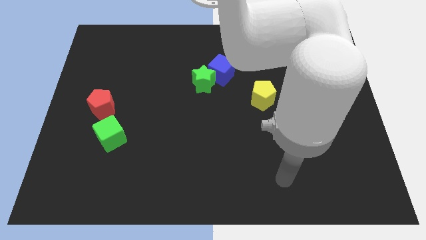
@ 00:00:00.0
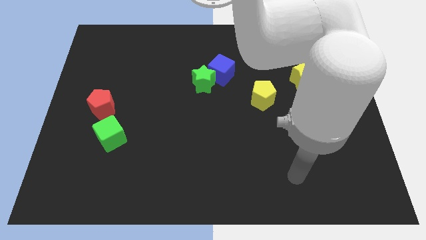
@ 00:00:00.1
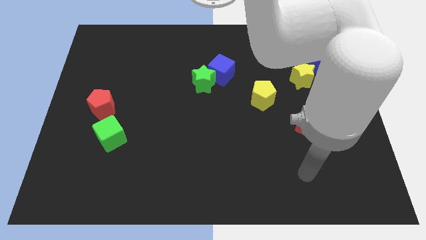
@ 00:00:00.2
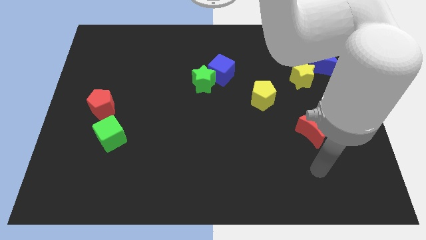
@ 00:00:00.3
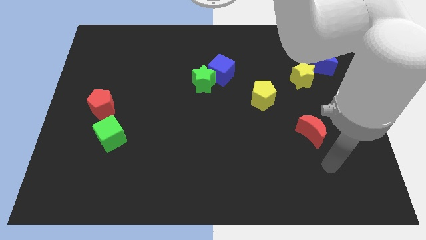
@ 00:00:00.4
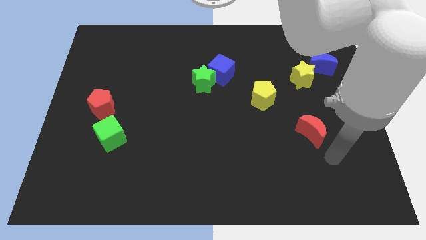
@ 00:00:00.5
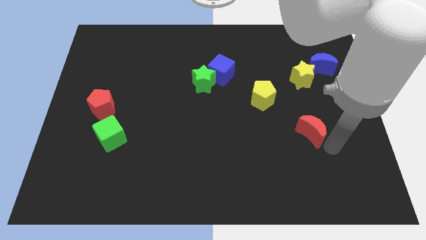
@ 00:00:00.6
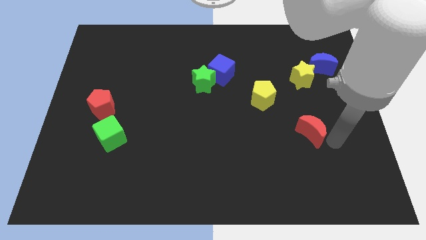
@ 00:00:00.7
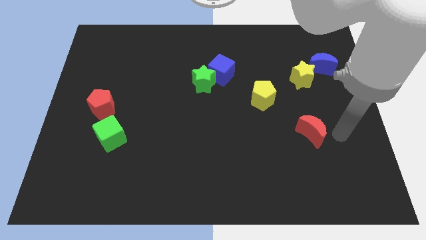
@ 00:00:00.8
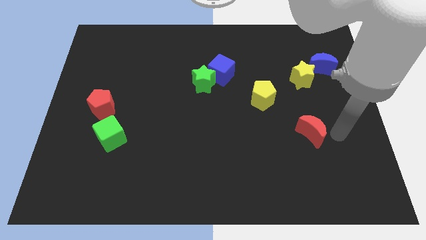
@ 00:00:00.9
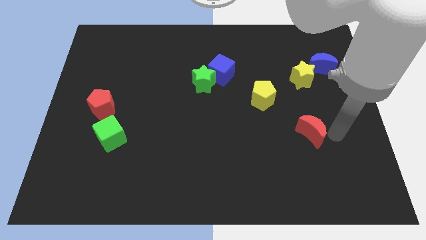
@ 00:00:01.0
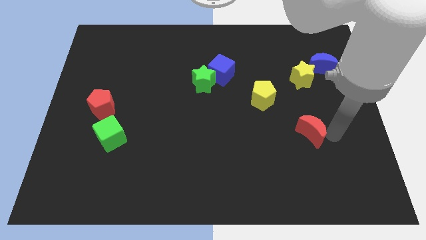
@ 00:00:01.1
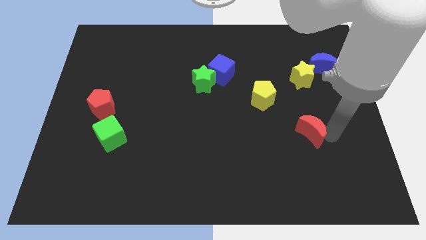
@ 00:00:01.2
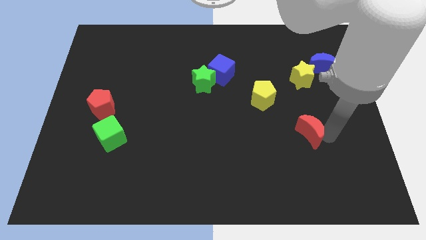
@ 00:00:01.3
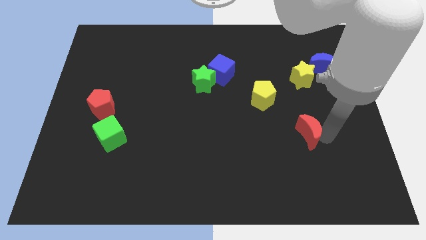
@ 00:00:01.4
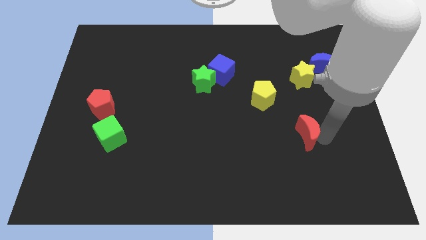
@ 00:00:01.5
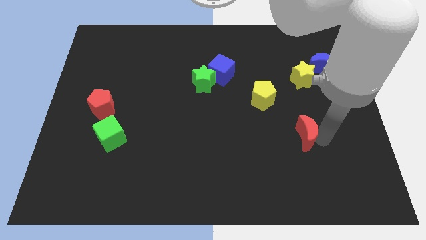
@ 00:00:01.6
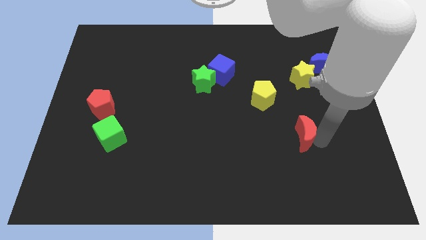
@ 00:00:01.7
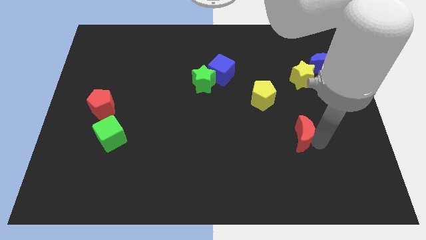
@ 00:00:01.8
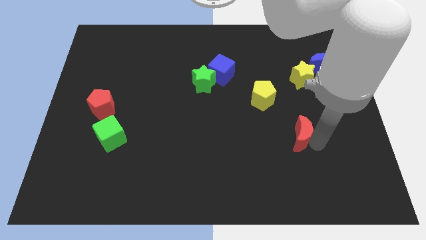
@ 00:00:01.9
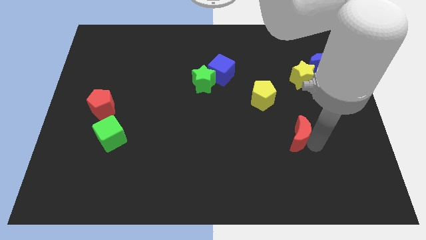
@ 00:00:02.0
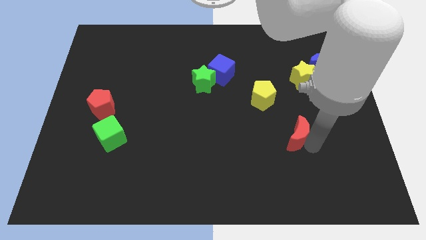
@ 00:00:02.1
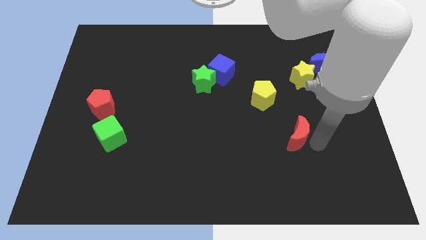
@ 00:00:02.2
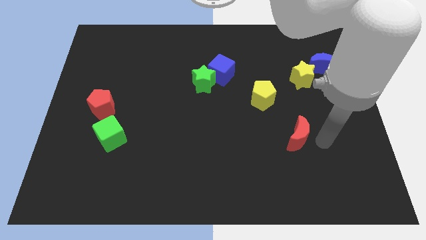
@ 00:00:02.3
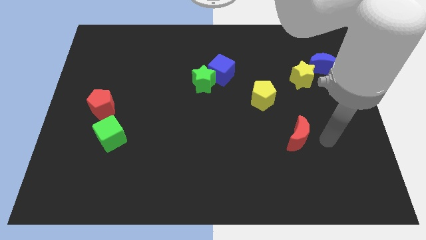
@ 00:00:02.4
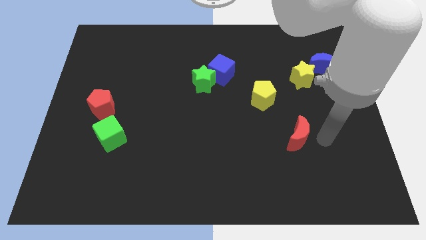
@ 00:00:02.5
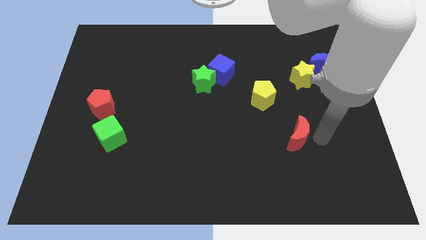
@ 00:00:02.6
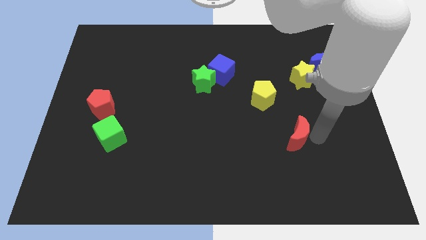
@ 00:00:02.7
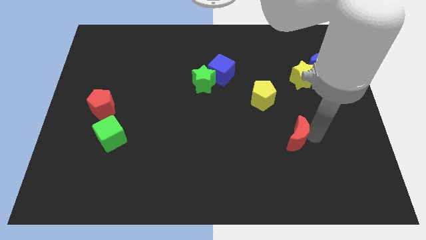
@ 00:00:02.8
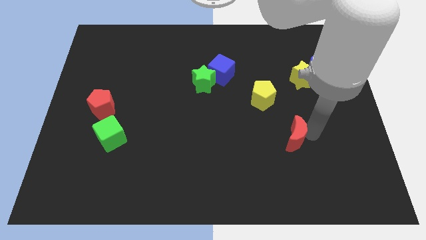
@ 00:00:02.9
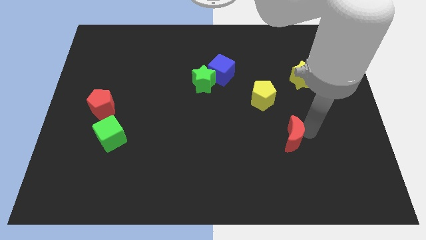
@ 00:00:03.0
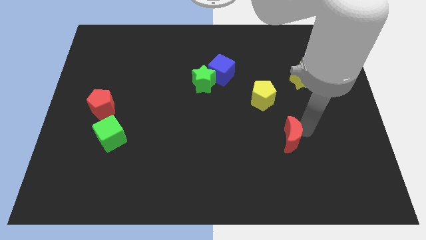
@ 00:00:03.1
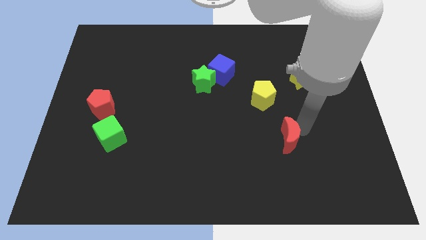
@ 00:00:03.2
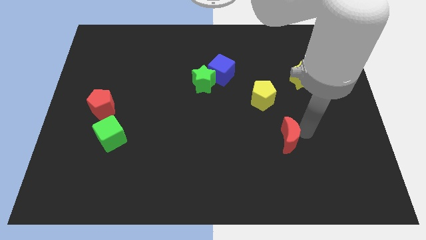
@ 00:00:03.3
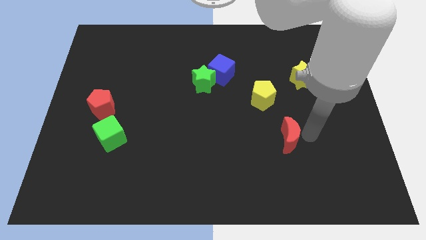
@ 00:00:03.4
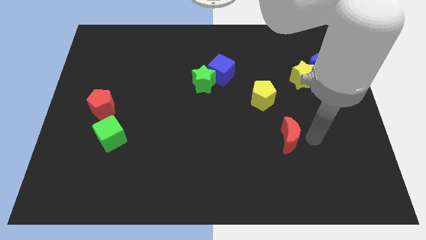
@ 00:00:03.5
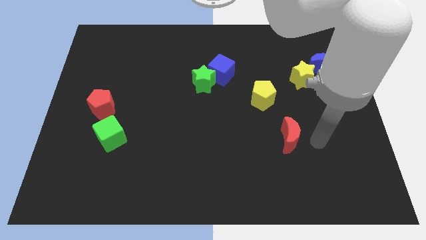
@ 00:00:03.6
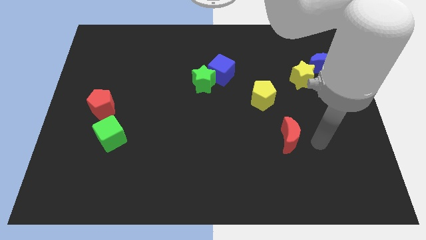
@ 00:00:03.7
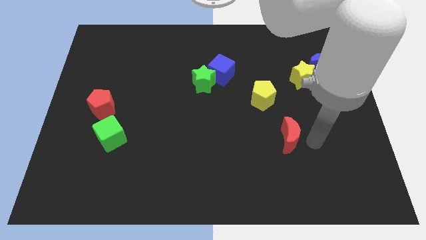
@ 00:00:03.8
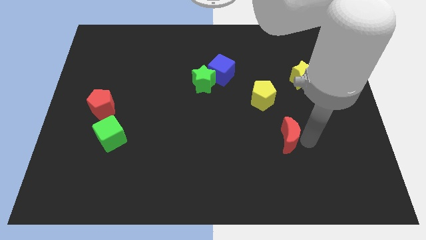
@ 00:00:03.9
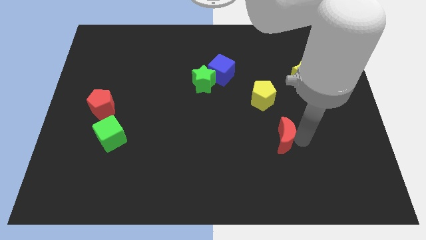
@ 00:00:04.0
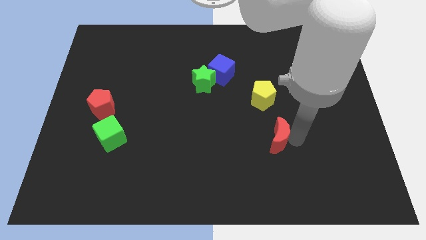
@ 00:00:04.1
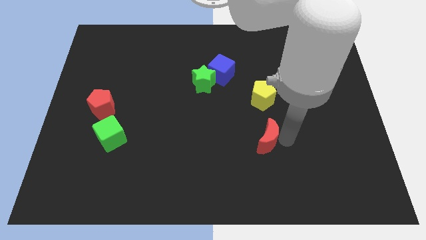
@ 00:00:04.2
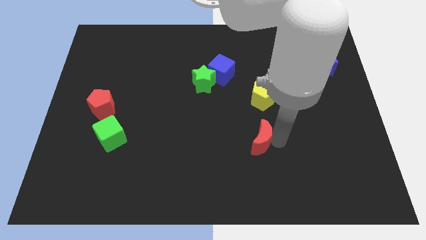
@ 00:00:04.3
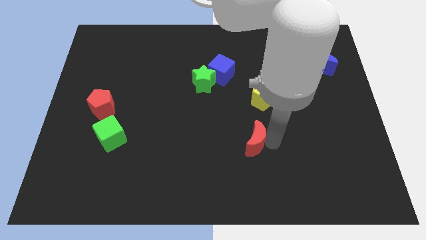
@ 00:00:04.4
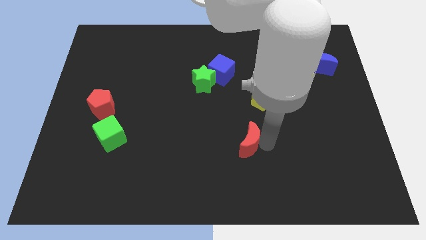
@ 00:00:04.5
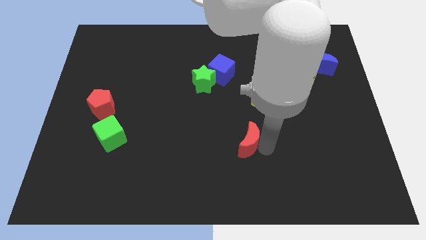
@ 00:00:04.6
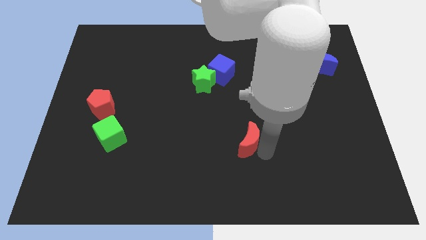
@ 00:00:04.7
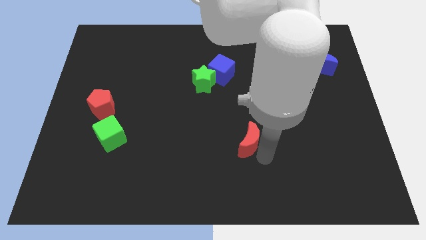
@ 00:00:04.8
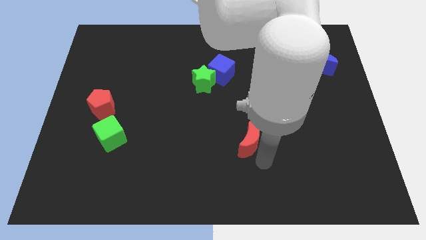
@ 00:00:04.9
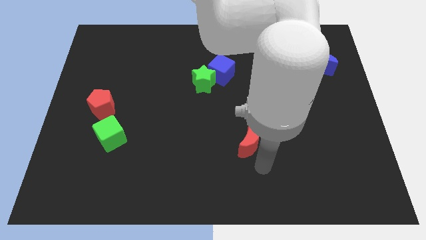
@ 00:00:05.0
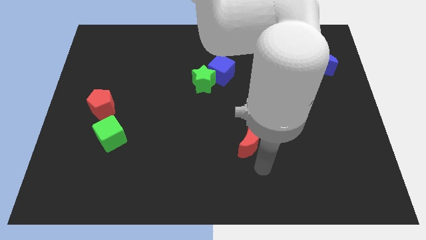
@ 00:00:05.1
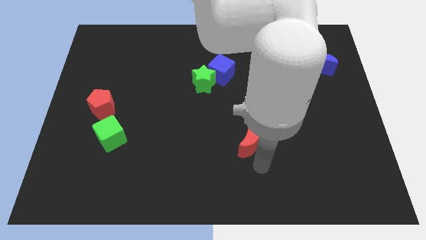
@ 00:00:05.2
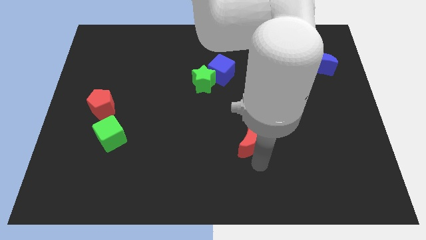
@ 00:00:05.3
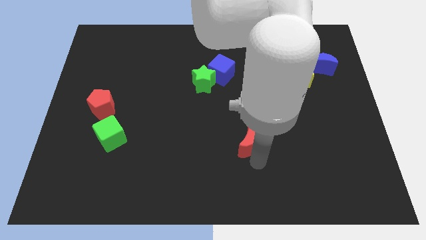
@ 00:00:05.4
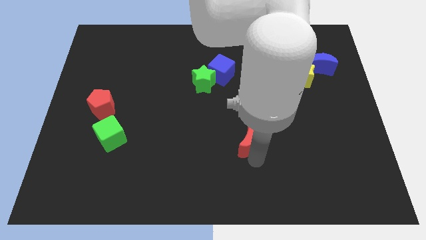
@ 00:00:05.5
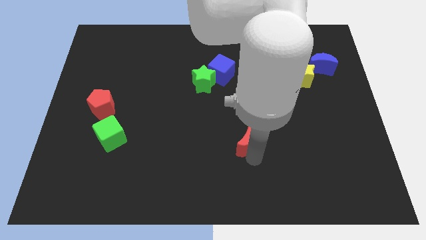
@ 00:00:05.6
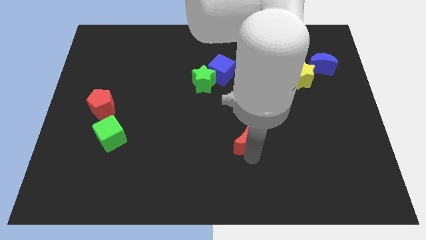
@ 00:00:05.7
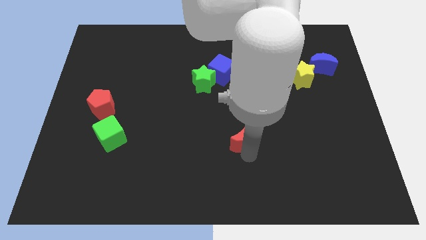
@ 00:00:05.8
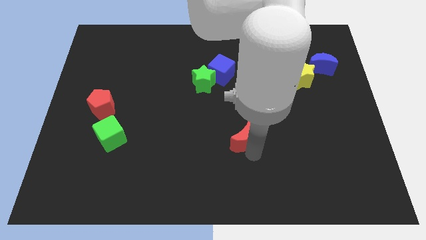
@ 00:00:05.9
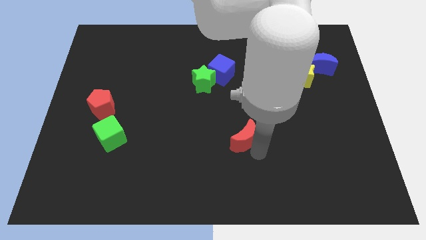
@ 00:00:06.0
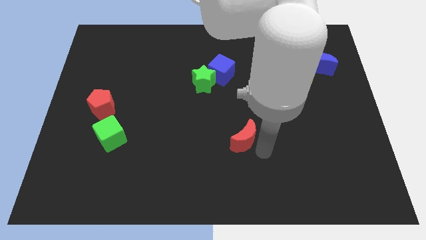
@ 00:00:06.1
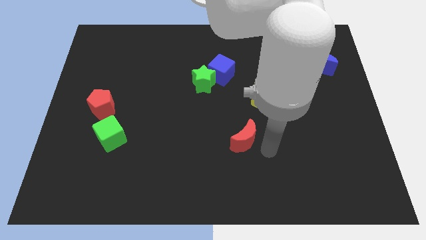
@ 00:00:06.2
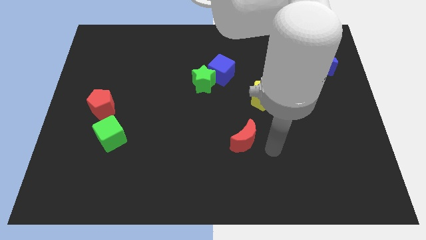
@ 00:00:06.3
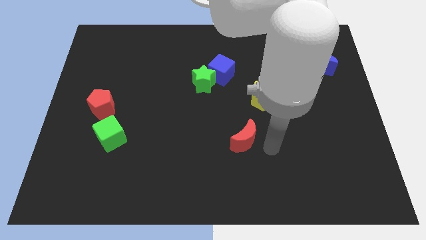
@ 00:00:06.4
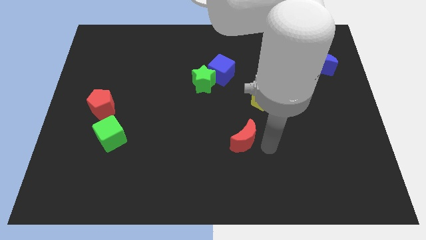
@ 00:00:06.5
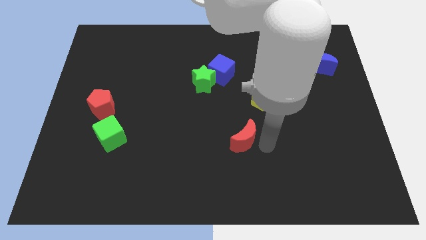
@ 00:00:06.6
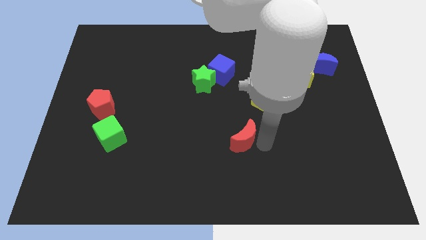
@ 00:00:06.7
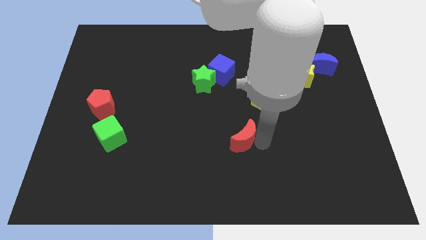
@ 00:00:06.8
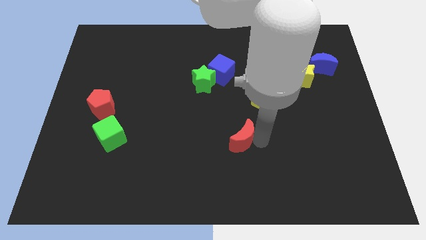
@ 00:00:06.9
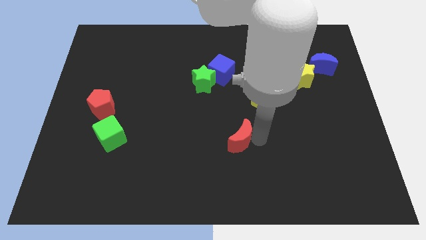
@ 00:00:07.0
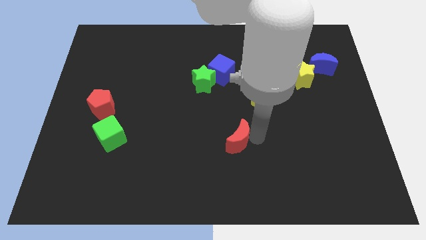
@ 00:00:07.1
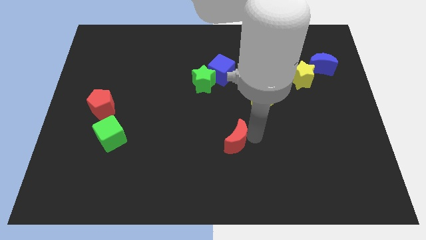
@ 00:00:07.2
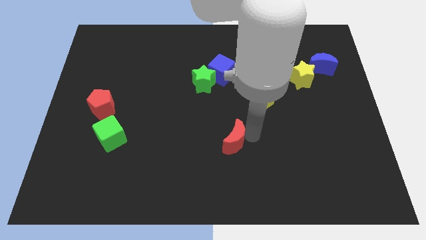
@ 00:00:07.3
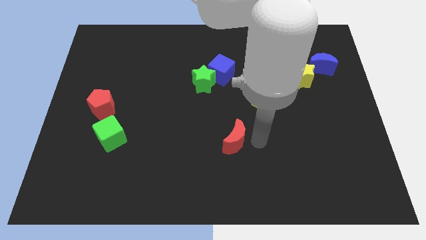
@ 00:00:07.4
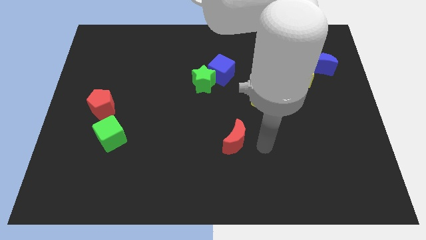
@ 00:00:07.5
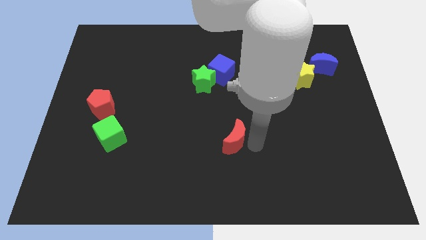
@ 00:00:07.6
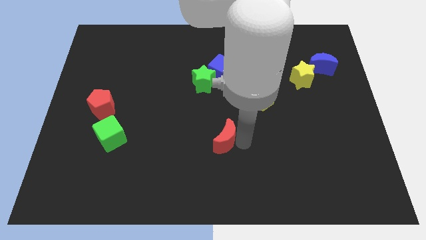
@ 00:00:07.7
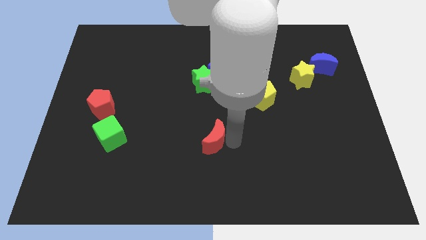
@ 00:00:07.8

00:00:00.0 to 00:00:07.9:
move the red moon left

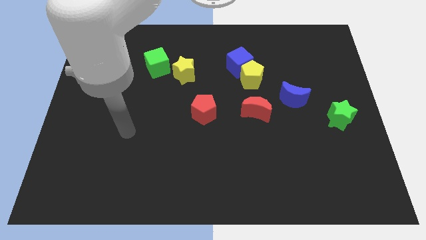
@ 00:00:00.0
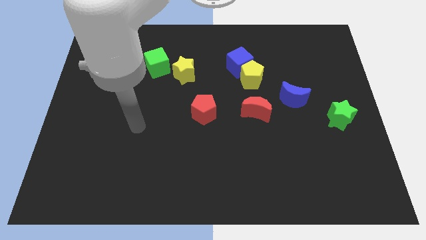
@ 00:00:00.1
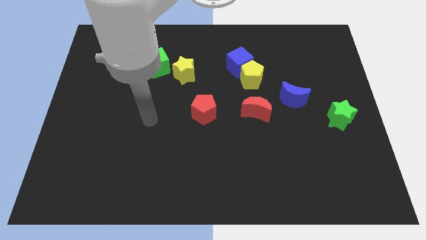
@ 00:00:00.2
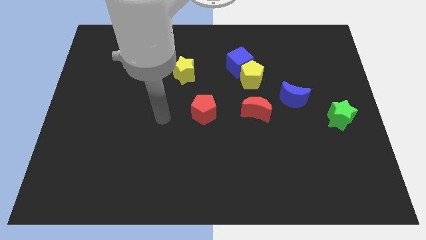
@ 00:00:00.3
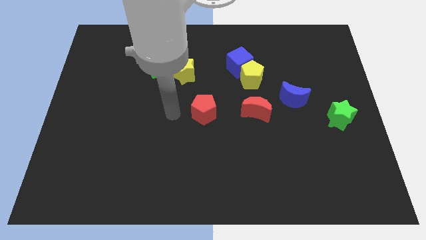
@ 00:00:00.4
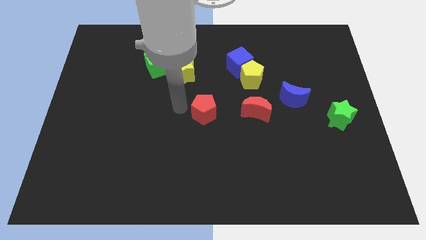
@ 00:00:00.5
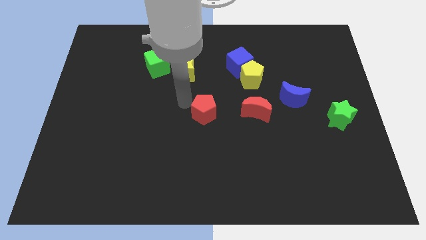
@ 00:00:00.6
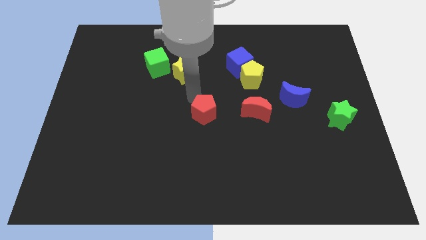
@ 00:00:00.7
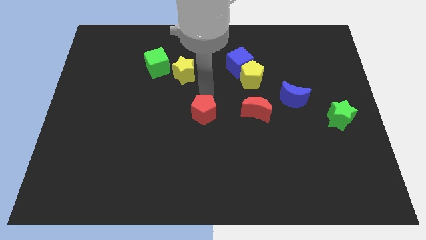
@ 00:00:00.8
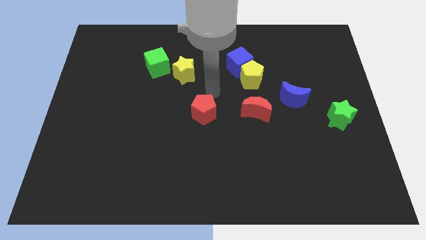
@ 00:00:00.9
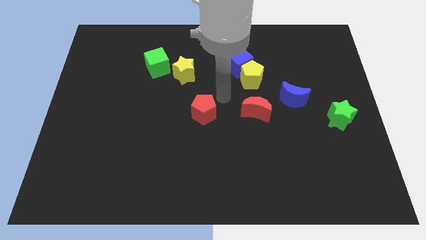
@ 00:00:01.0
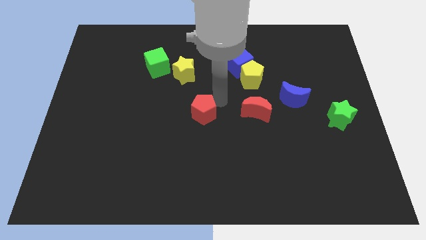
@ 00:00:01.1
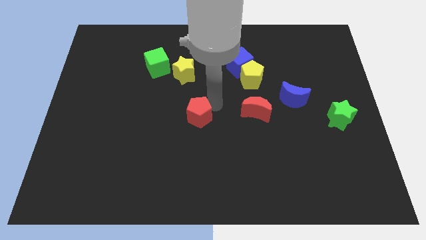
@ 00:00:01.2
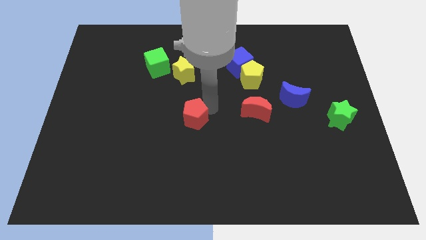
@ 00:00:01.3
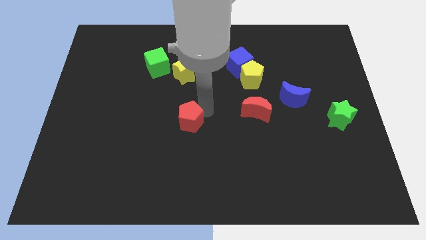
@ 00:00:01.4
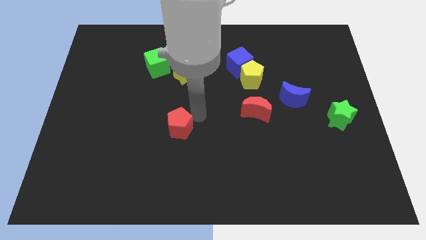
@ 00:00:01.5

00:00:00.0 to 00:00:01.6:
slightly move the red pentagon downwards and left diagonally
